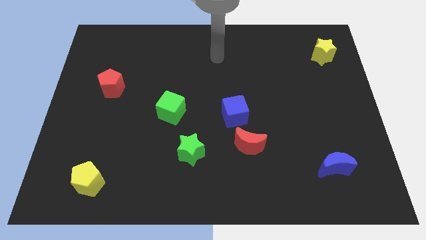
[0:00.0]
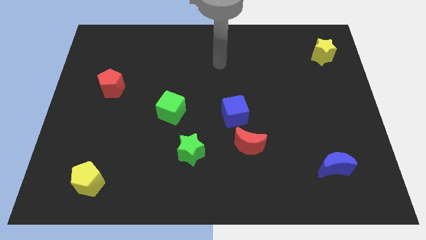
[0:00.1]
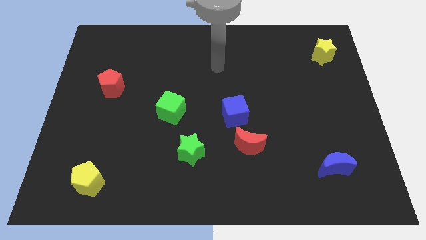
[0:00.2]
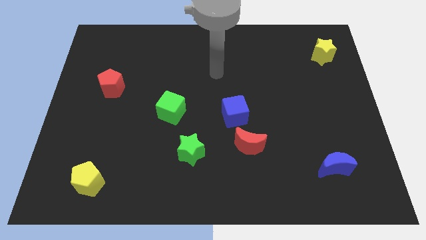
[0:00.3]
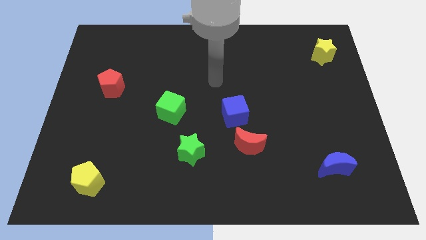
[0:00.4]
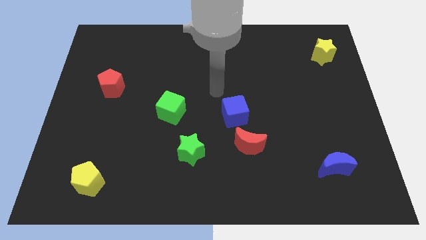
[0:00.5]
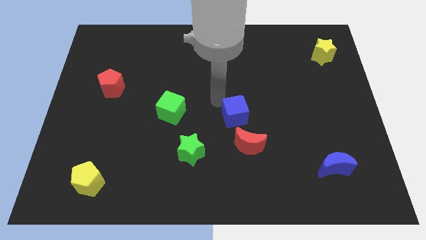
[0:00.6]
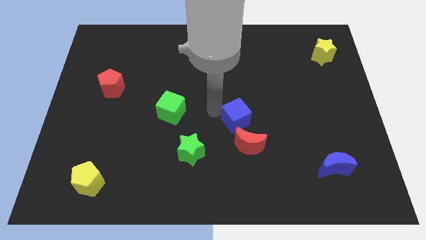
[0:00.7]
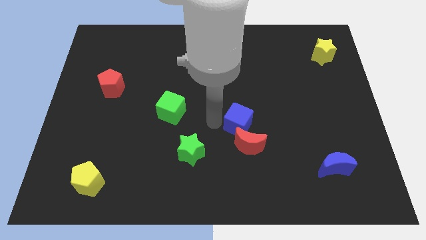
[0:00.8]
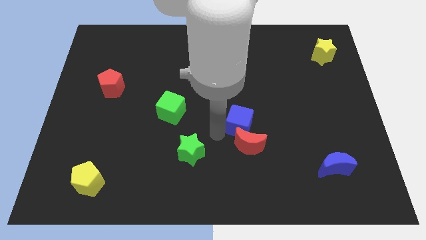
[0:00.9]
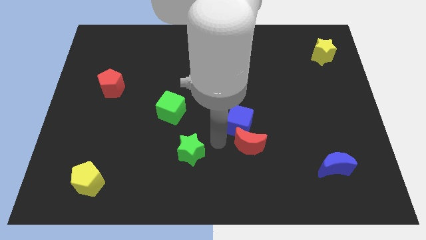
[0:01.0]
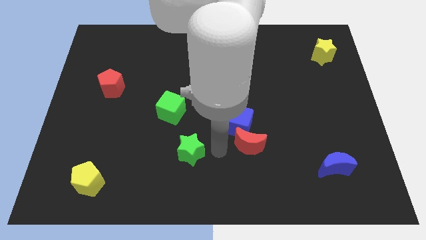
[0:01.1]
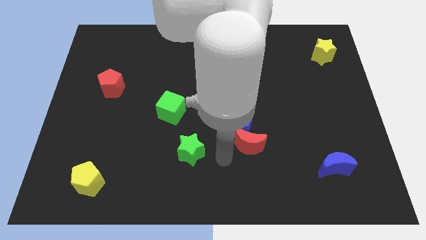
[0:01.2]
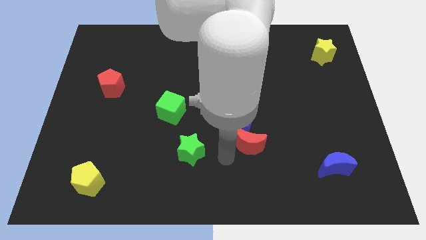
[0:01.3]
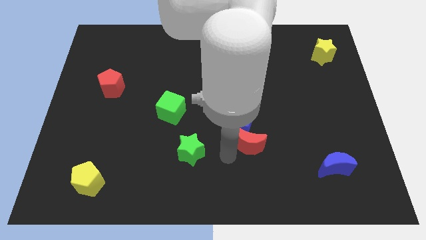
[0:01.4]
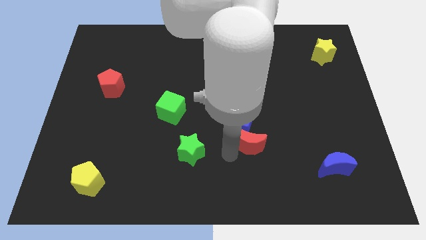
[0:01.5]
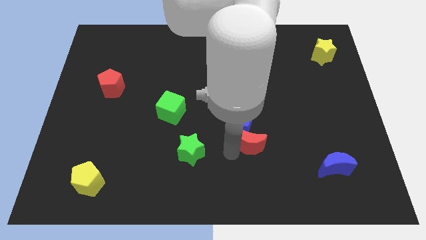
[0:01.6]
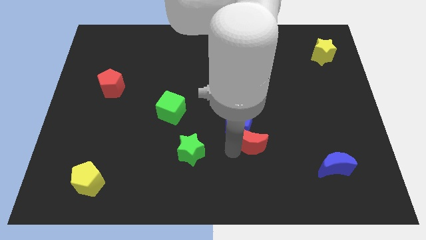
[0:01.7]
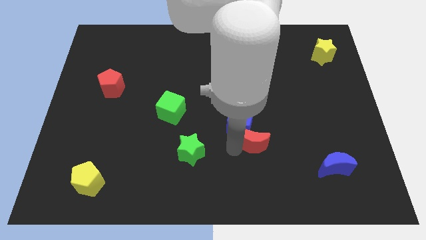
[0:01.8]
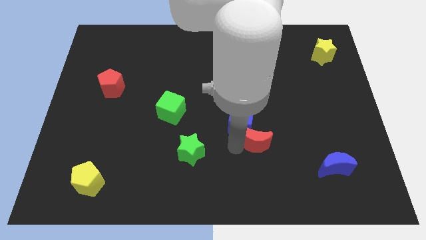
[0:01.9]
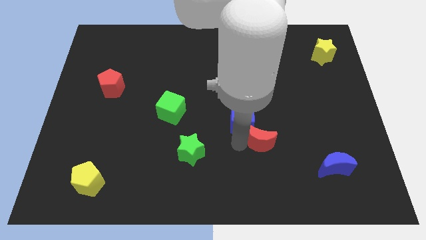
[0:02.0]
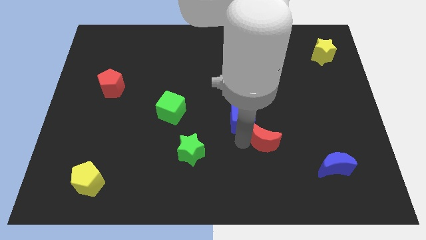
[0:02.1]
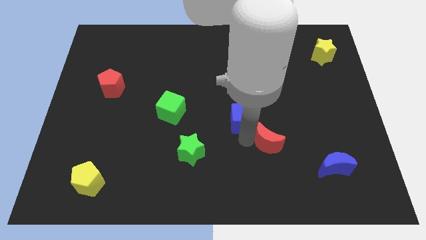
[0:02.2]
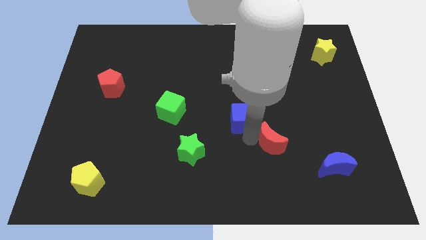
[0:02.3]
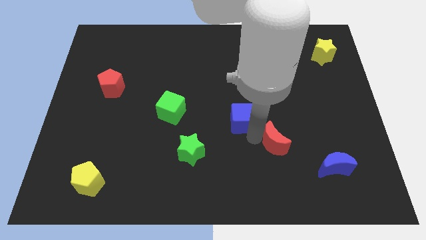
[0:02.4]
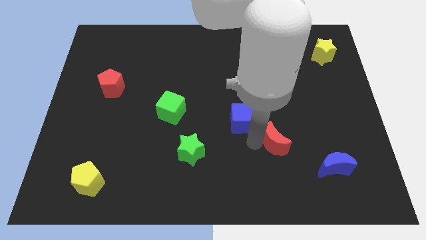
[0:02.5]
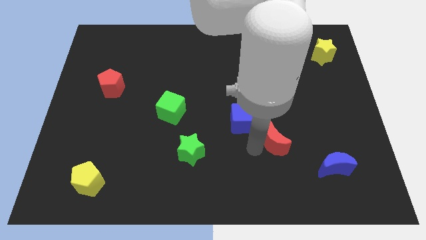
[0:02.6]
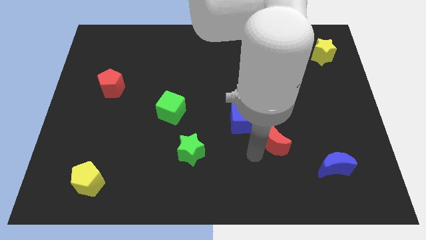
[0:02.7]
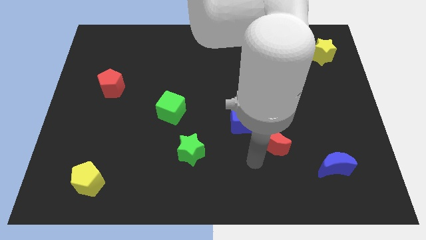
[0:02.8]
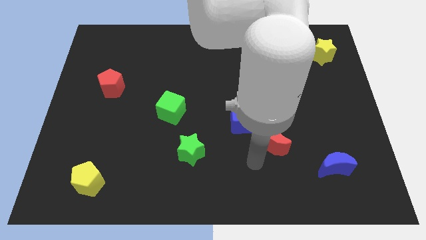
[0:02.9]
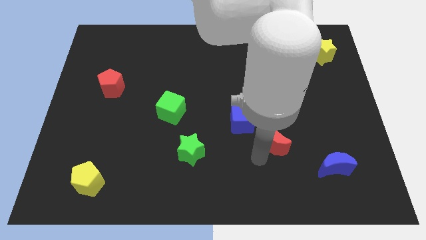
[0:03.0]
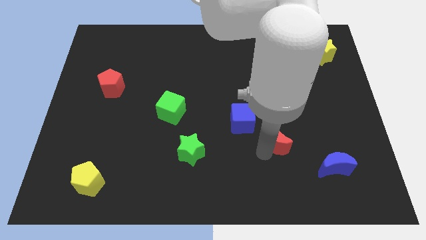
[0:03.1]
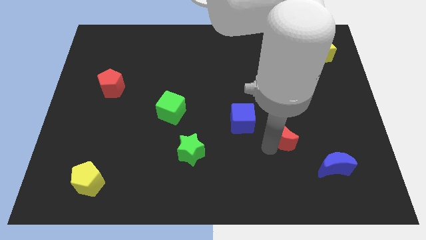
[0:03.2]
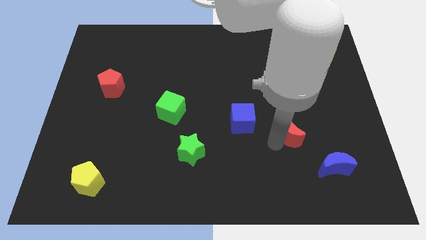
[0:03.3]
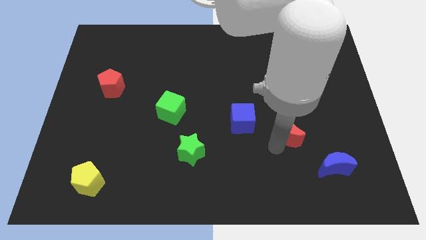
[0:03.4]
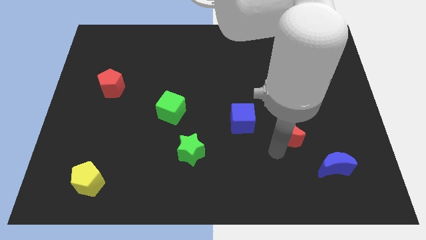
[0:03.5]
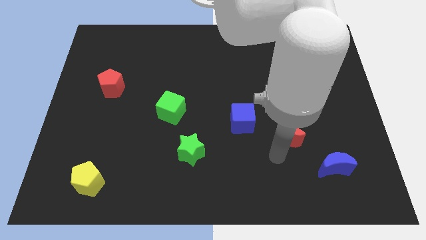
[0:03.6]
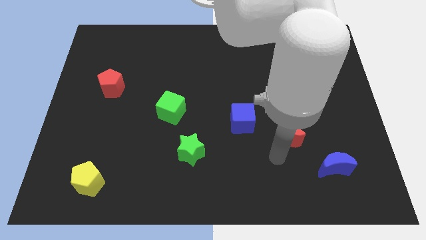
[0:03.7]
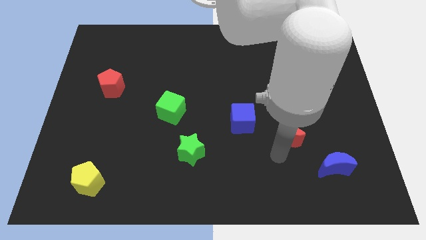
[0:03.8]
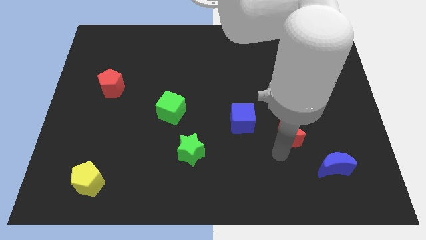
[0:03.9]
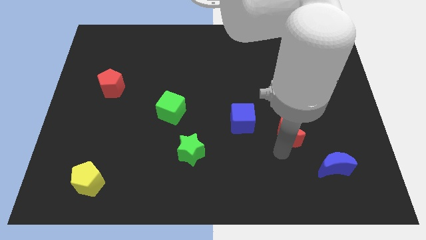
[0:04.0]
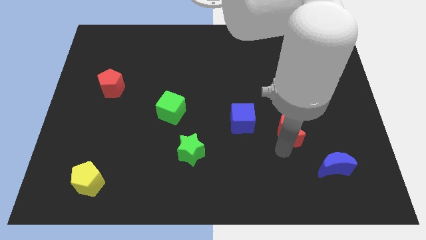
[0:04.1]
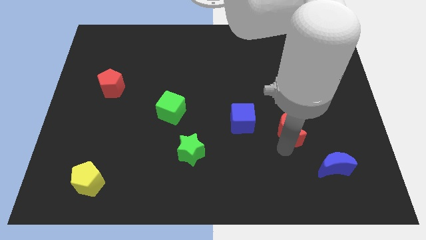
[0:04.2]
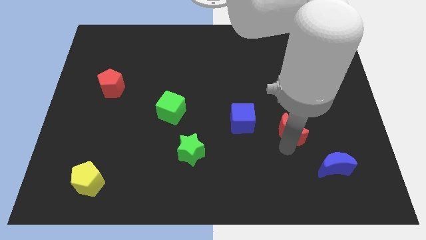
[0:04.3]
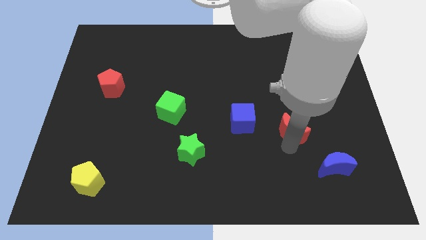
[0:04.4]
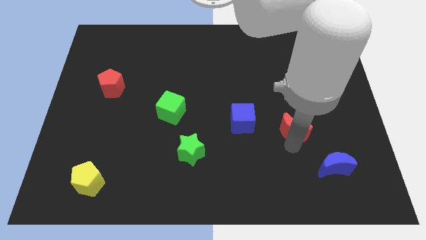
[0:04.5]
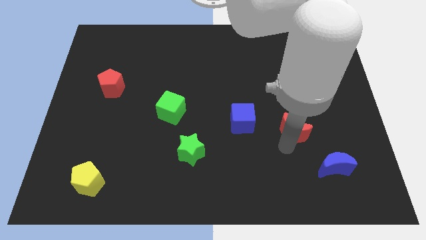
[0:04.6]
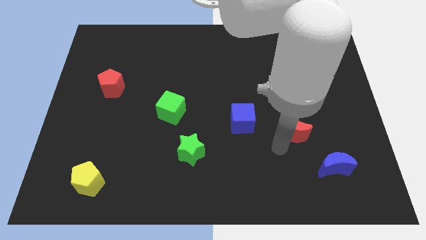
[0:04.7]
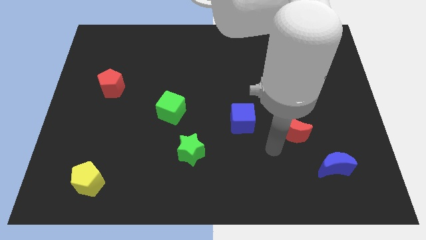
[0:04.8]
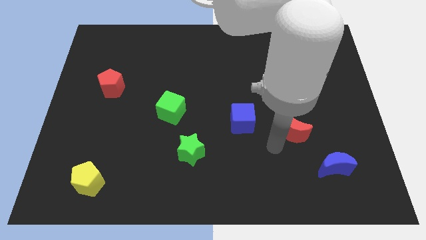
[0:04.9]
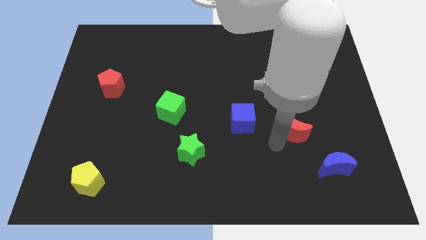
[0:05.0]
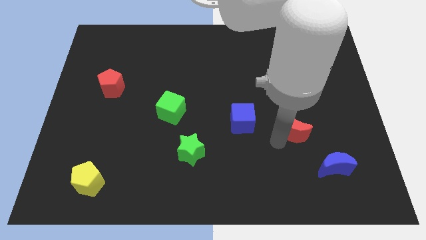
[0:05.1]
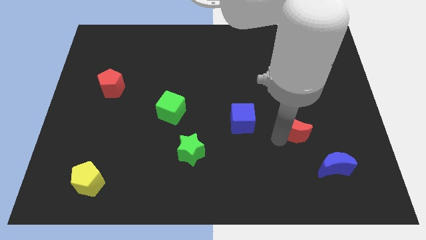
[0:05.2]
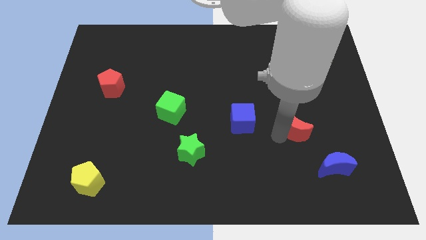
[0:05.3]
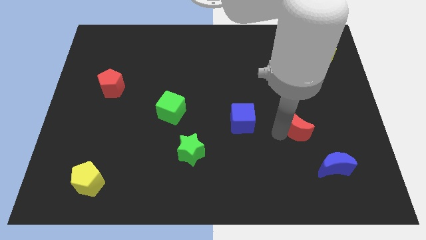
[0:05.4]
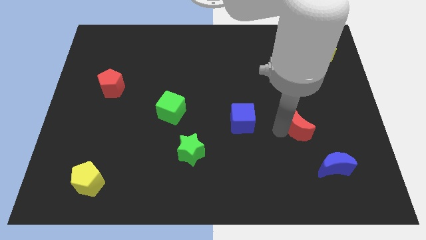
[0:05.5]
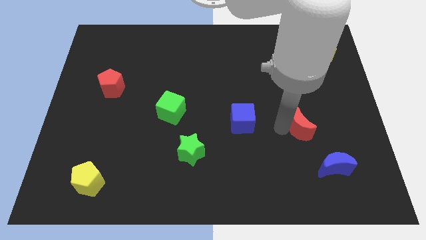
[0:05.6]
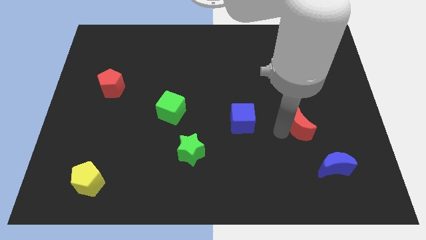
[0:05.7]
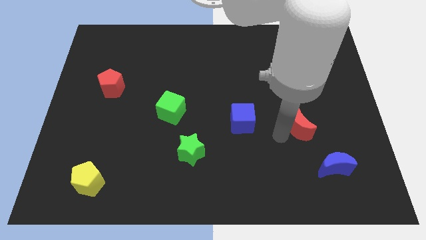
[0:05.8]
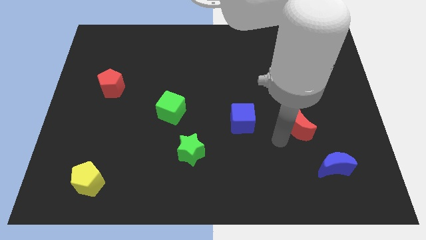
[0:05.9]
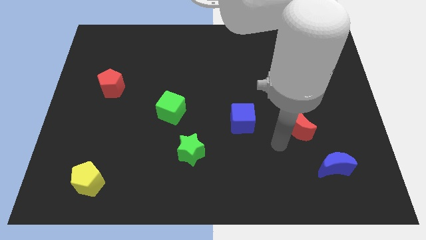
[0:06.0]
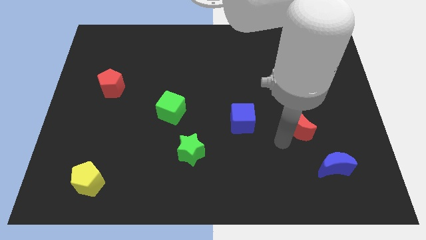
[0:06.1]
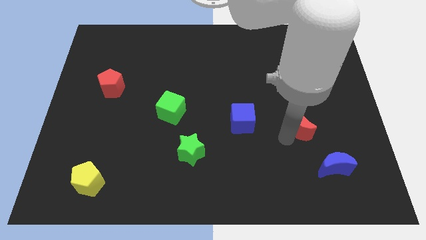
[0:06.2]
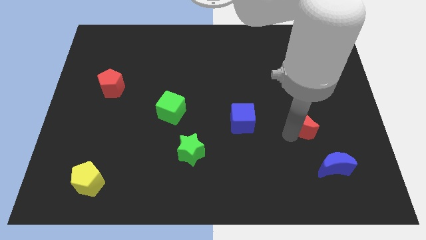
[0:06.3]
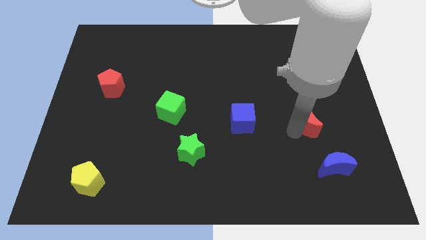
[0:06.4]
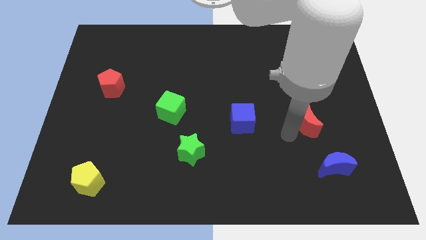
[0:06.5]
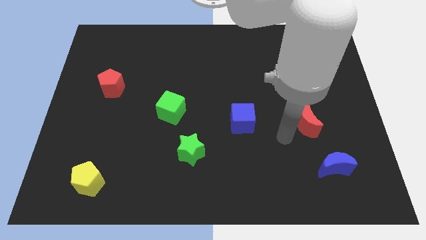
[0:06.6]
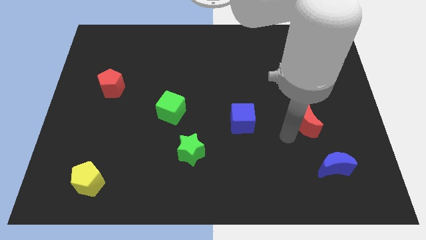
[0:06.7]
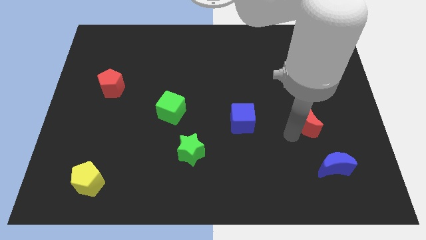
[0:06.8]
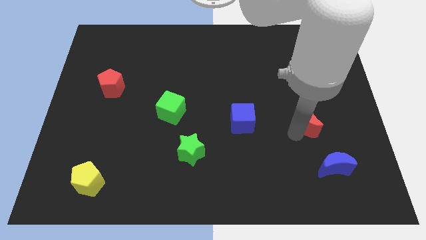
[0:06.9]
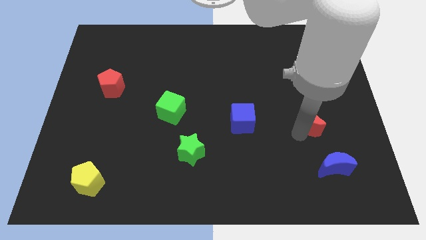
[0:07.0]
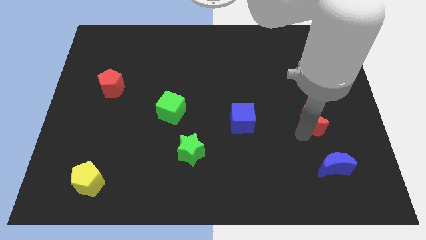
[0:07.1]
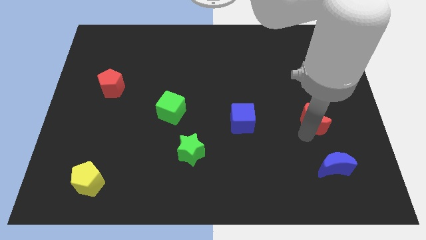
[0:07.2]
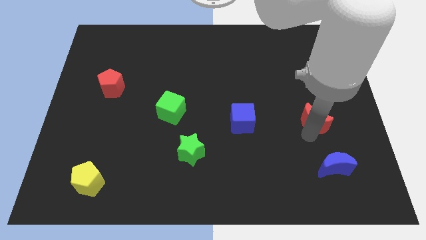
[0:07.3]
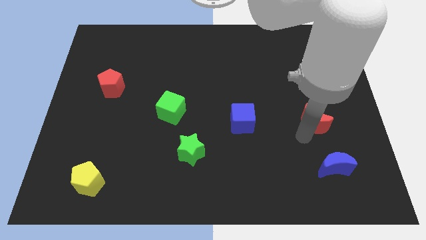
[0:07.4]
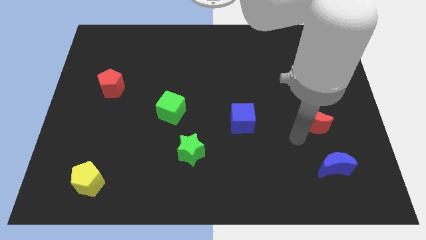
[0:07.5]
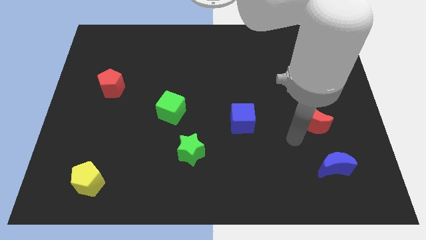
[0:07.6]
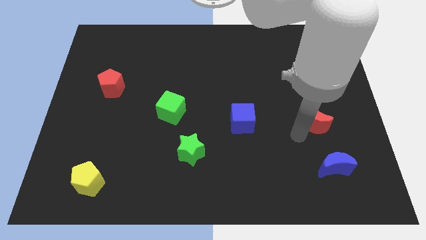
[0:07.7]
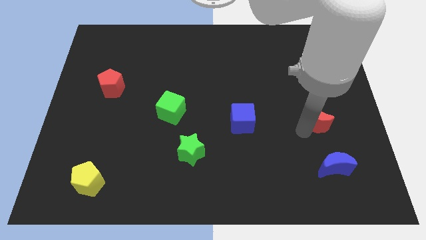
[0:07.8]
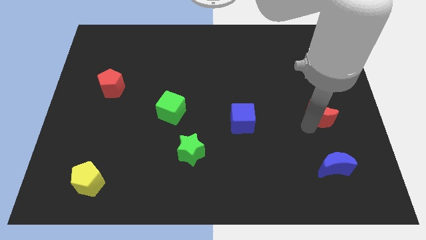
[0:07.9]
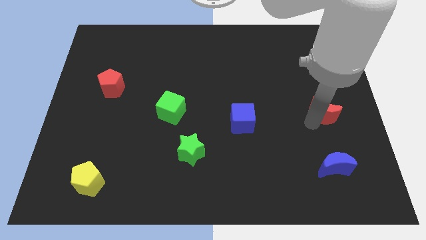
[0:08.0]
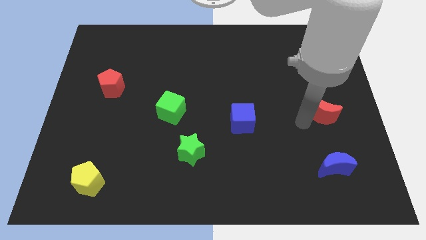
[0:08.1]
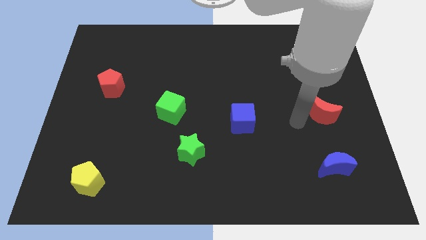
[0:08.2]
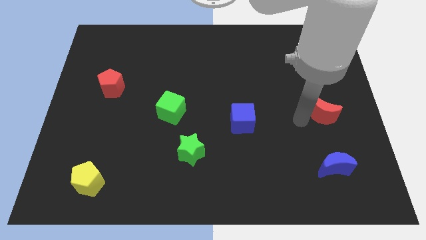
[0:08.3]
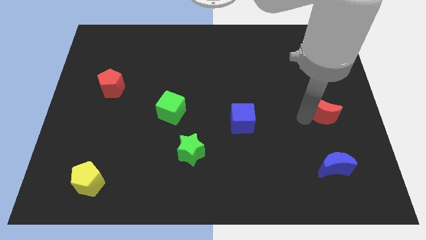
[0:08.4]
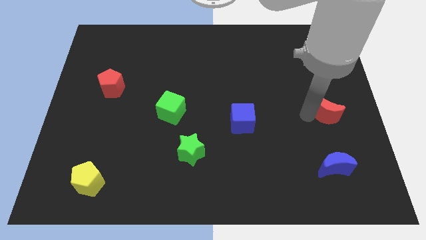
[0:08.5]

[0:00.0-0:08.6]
move the red moon to the right side
